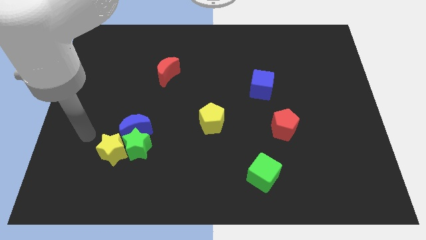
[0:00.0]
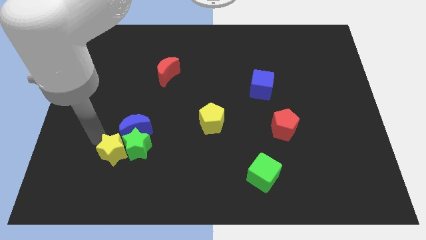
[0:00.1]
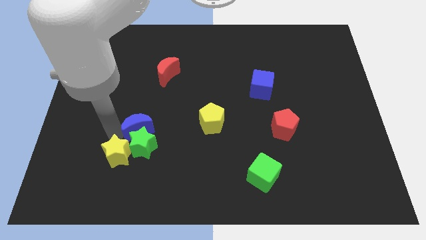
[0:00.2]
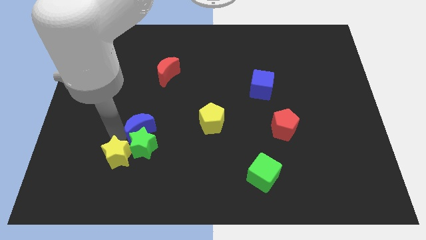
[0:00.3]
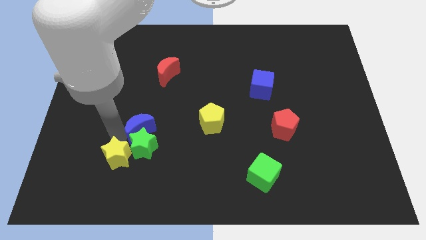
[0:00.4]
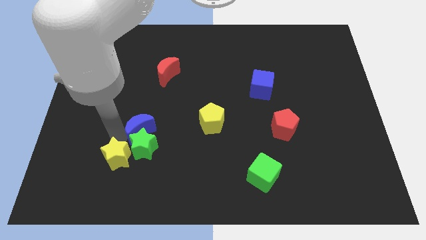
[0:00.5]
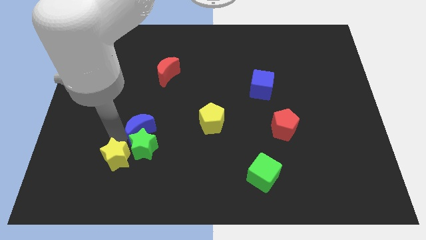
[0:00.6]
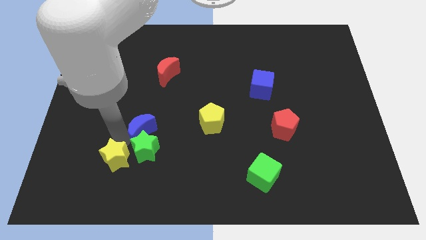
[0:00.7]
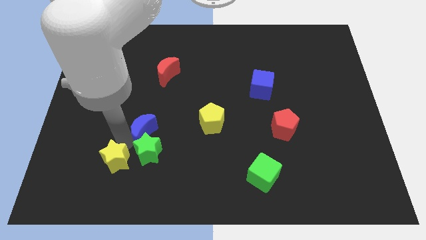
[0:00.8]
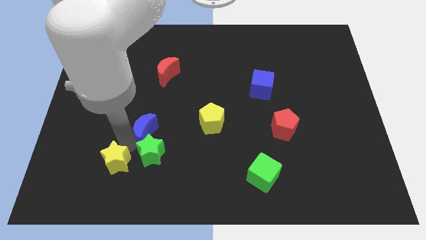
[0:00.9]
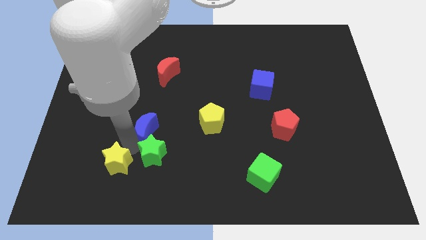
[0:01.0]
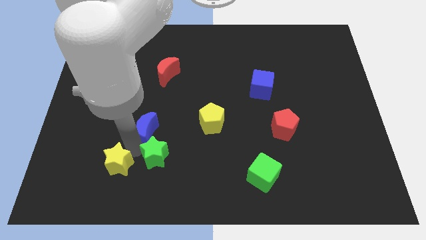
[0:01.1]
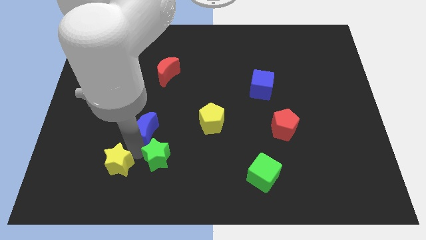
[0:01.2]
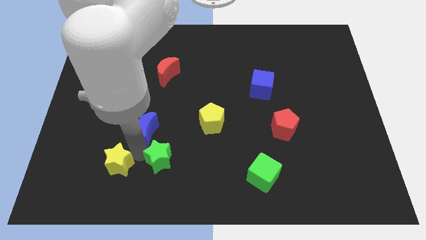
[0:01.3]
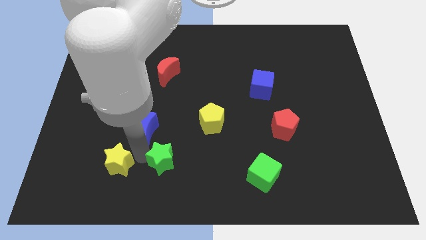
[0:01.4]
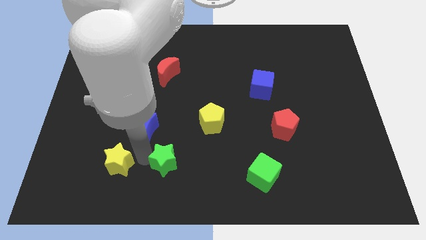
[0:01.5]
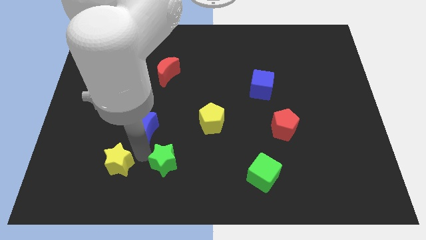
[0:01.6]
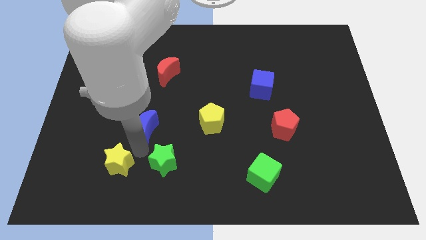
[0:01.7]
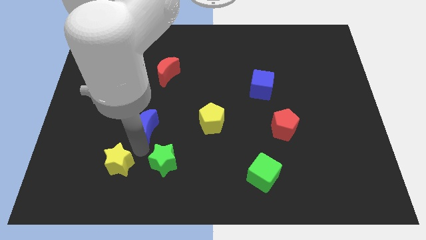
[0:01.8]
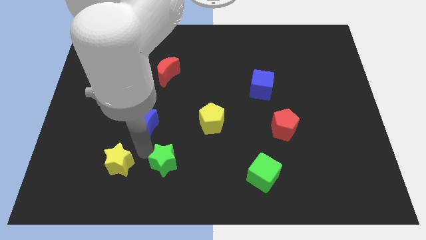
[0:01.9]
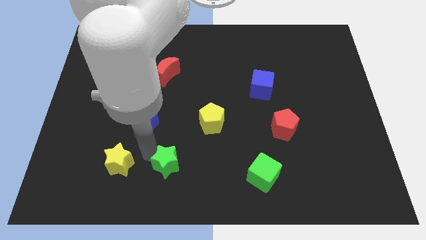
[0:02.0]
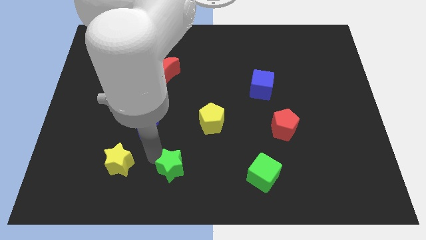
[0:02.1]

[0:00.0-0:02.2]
move the green star away from the blue moon and yellow star

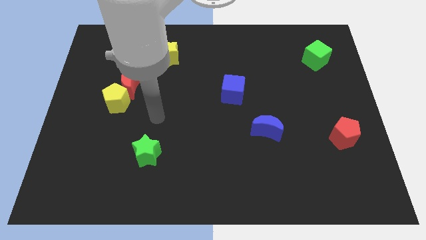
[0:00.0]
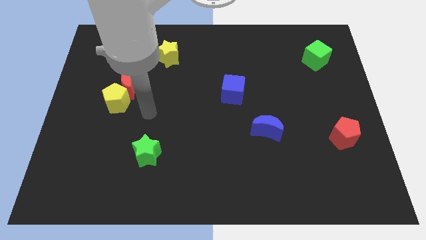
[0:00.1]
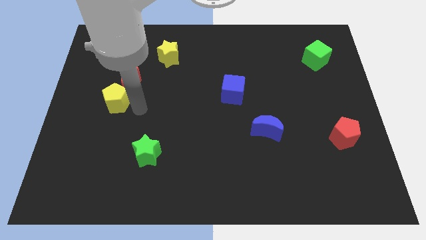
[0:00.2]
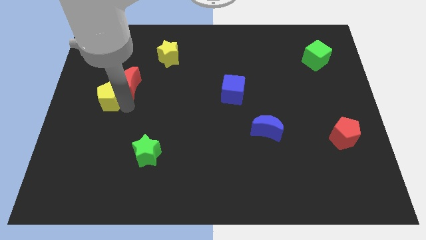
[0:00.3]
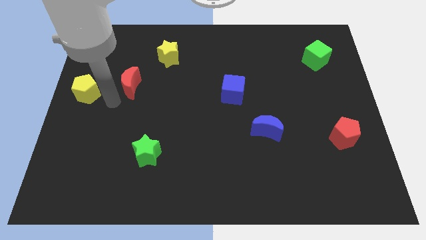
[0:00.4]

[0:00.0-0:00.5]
move the red moon away from the yellow pentagon

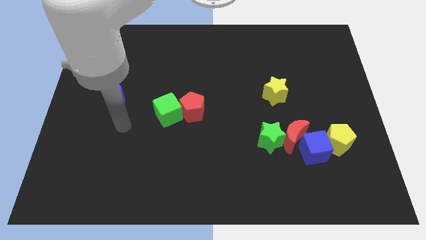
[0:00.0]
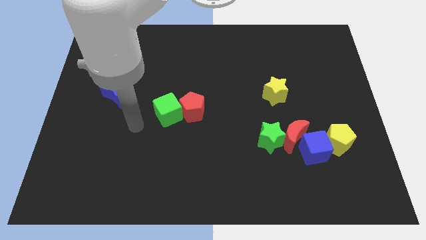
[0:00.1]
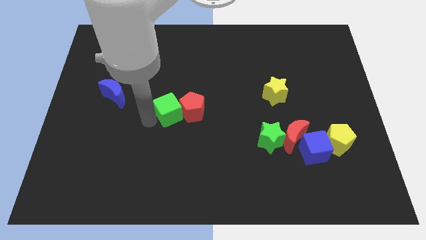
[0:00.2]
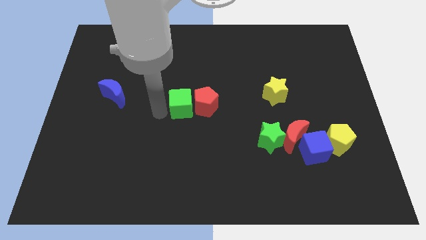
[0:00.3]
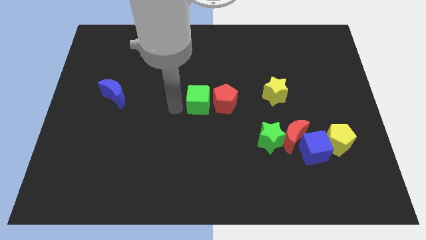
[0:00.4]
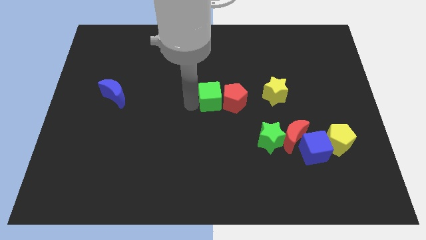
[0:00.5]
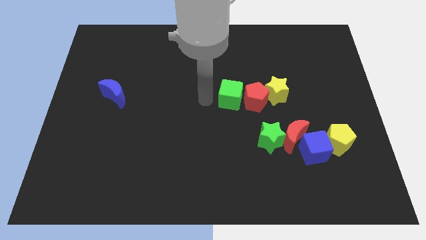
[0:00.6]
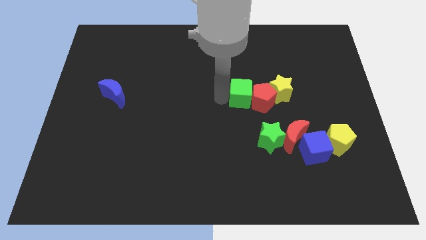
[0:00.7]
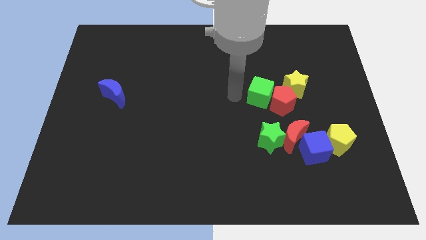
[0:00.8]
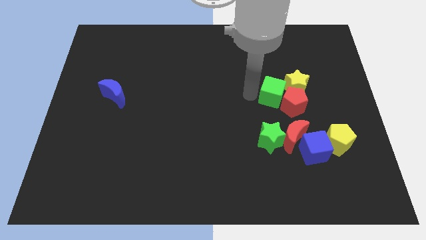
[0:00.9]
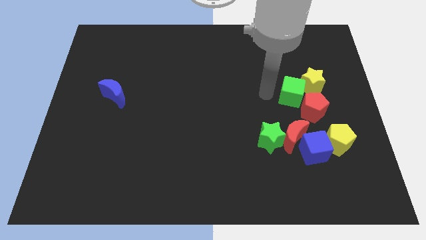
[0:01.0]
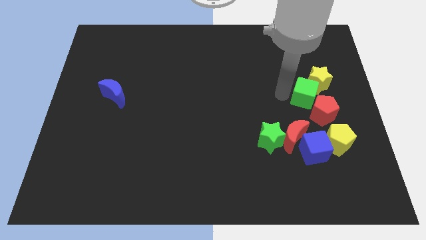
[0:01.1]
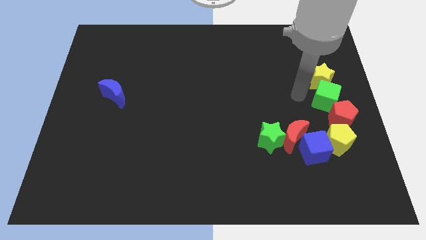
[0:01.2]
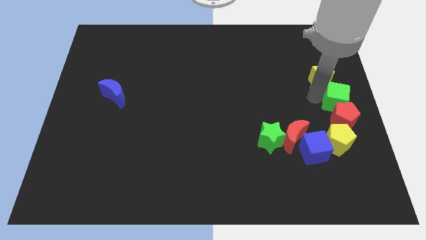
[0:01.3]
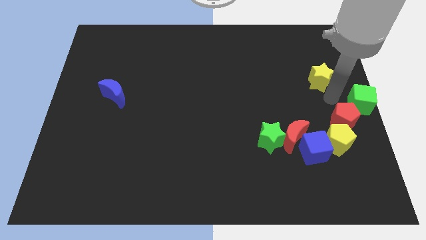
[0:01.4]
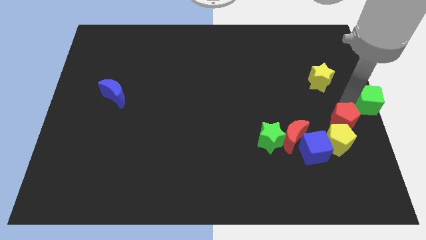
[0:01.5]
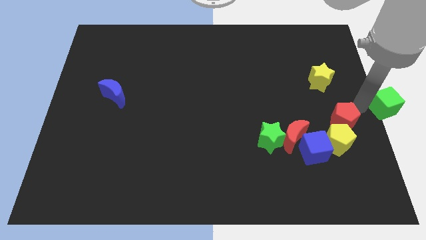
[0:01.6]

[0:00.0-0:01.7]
pull the red pentagon apart from the green cube

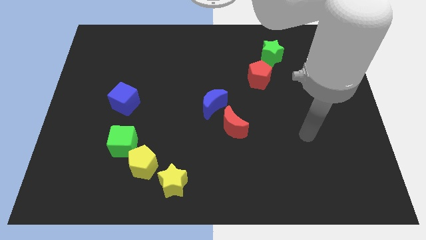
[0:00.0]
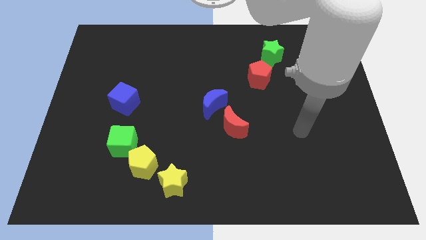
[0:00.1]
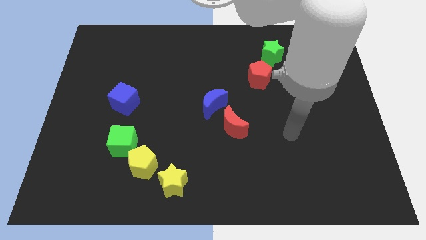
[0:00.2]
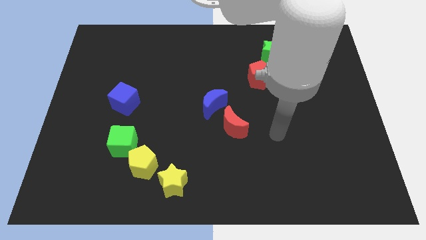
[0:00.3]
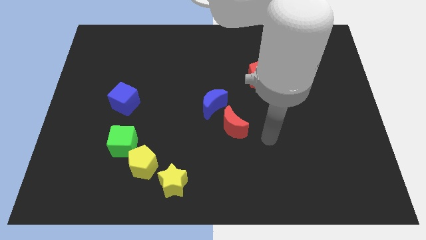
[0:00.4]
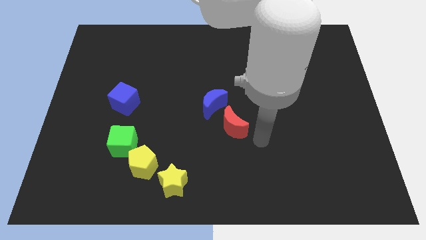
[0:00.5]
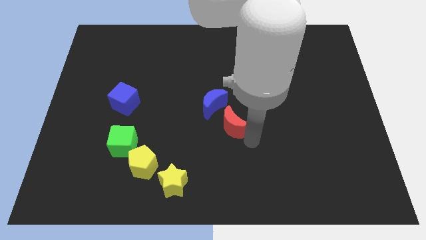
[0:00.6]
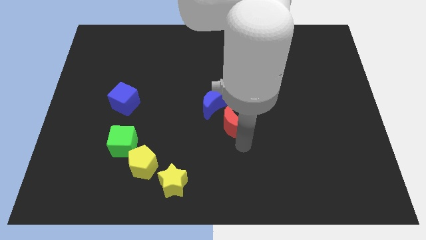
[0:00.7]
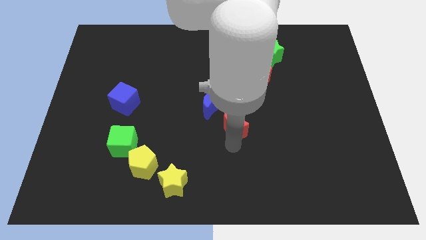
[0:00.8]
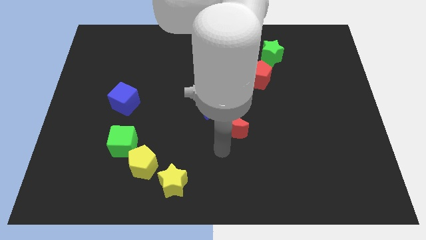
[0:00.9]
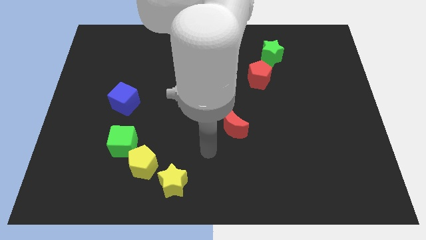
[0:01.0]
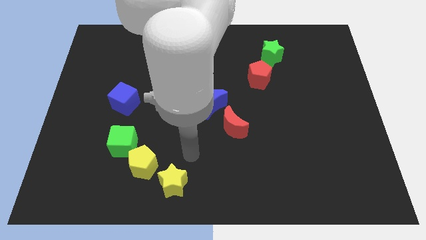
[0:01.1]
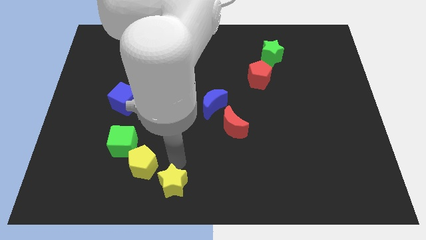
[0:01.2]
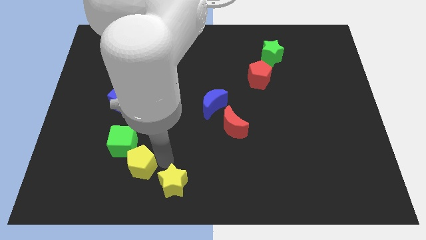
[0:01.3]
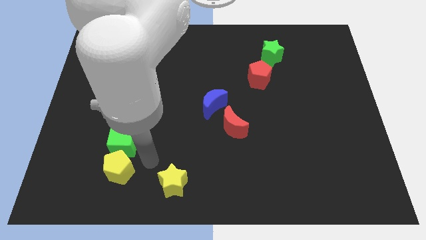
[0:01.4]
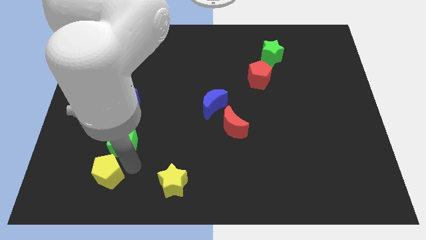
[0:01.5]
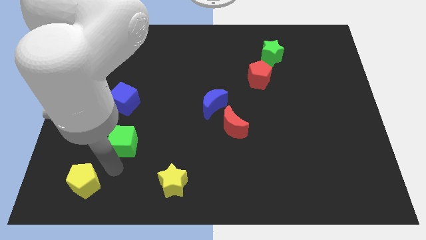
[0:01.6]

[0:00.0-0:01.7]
move the green cube away from the yellow pentagon

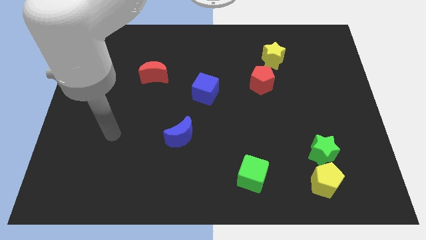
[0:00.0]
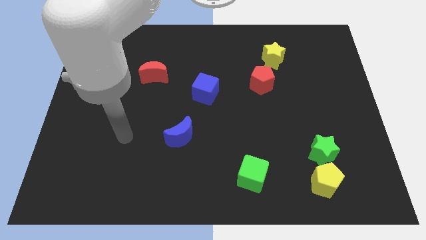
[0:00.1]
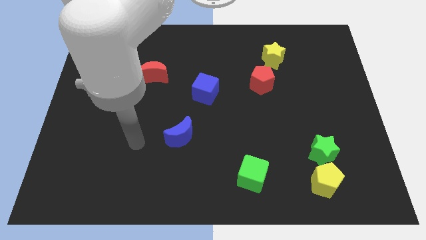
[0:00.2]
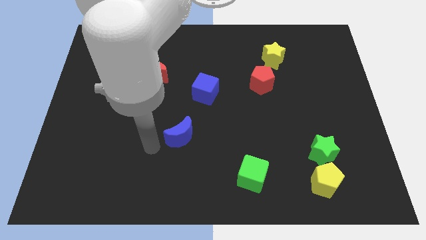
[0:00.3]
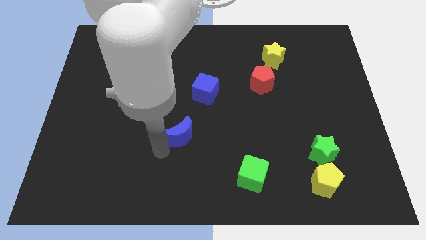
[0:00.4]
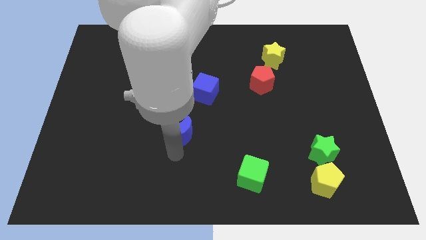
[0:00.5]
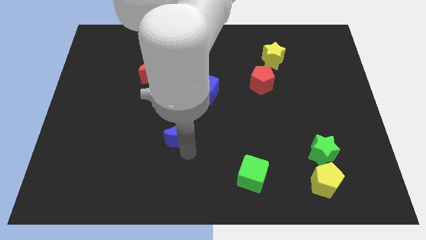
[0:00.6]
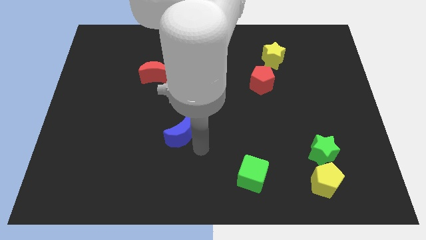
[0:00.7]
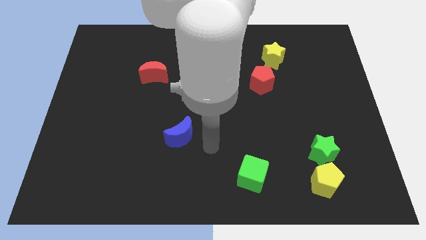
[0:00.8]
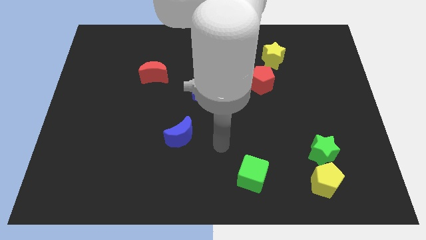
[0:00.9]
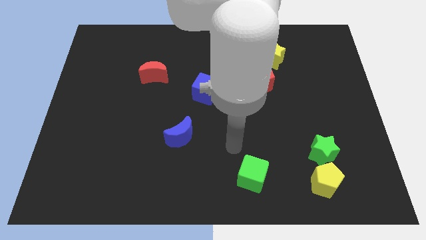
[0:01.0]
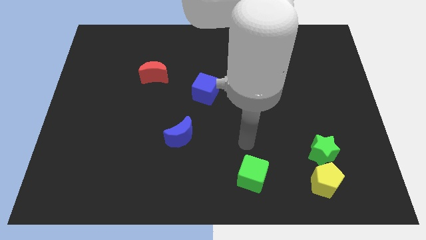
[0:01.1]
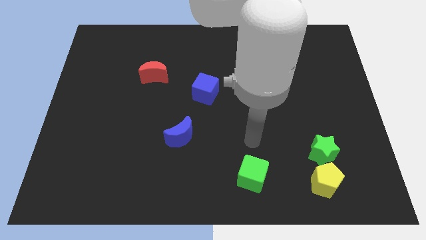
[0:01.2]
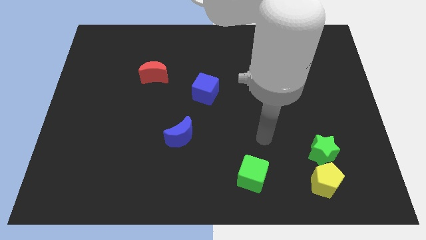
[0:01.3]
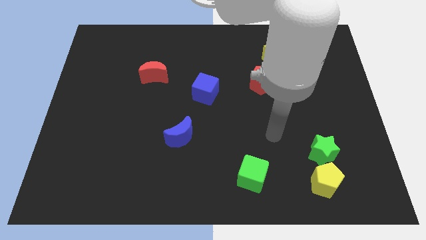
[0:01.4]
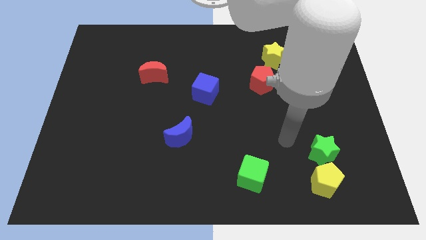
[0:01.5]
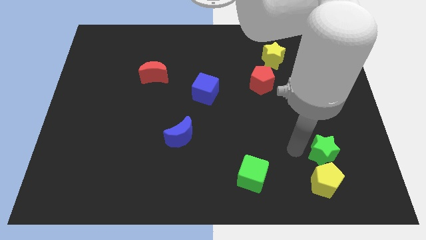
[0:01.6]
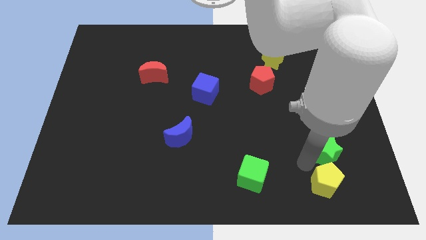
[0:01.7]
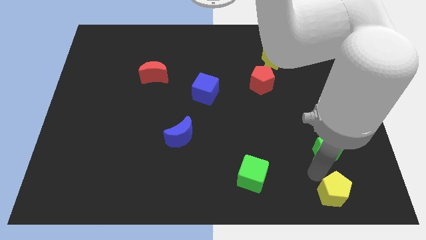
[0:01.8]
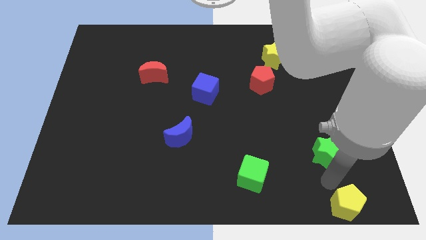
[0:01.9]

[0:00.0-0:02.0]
pull the green star apart from the yellow pentagon

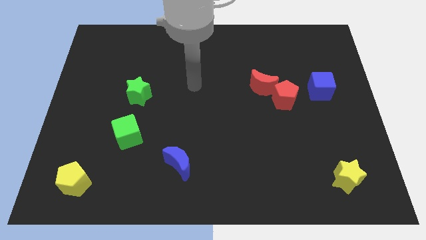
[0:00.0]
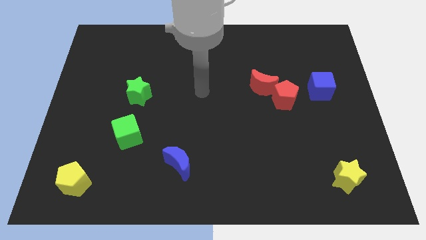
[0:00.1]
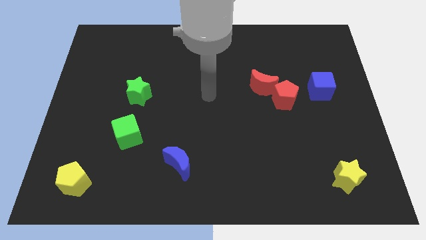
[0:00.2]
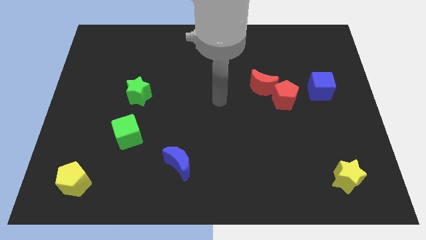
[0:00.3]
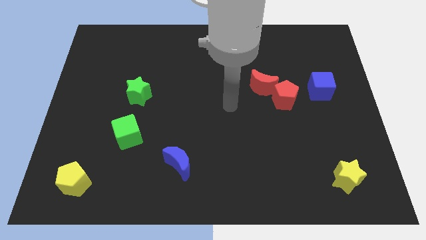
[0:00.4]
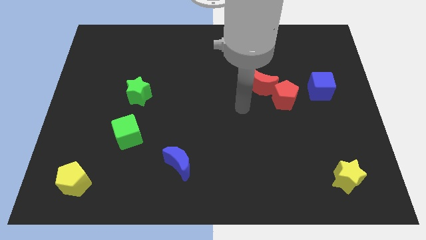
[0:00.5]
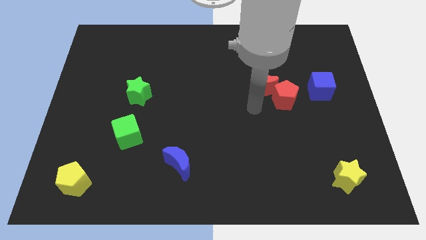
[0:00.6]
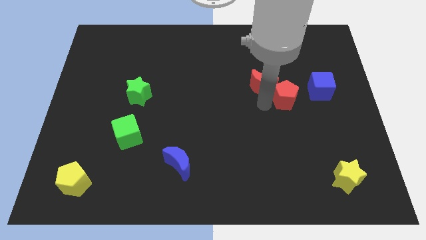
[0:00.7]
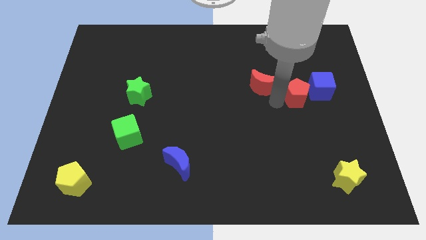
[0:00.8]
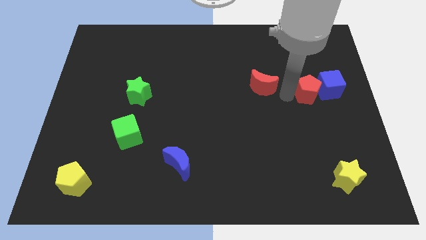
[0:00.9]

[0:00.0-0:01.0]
separate the red moon from the red pentagon
